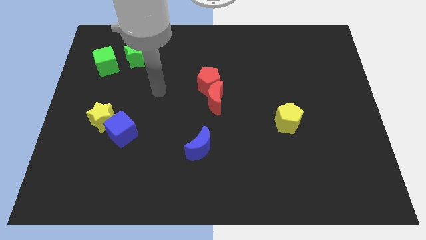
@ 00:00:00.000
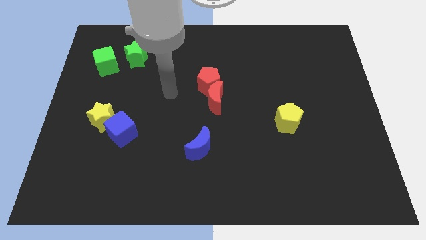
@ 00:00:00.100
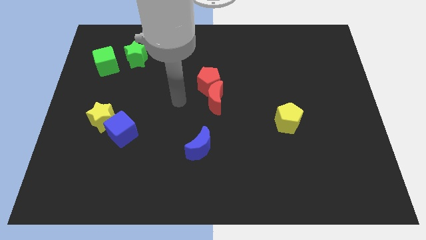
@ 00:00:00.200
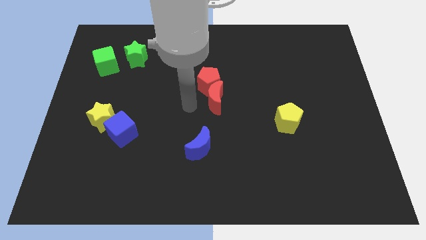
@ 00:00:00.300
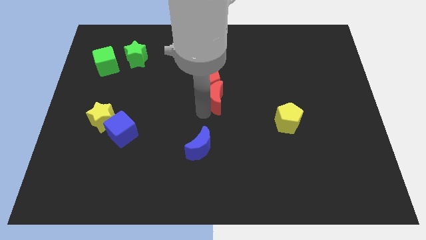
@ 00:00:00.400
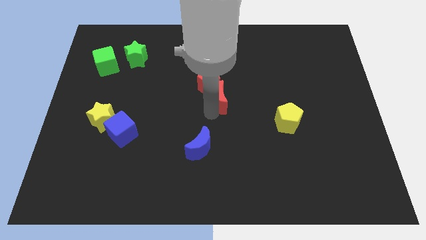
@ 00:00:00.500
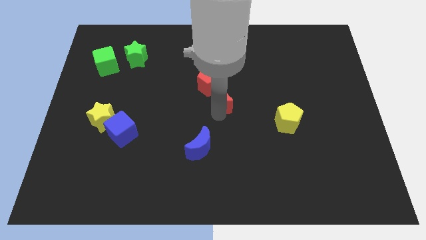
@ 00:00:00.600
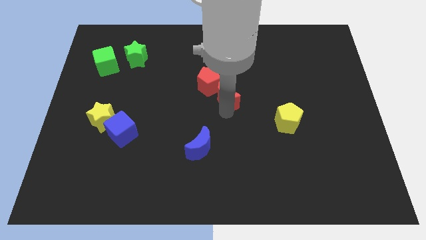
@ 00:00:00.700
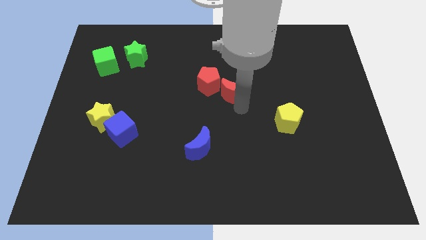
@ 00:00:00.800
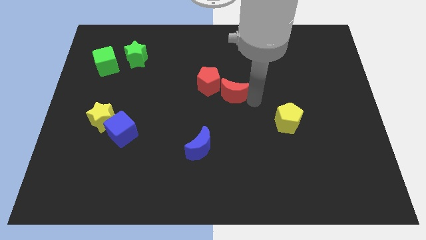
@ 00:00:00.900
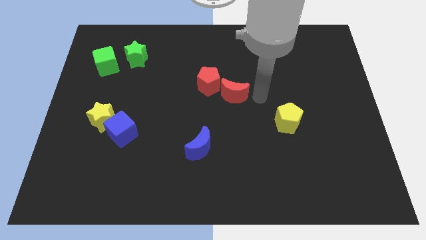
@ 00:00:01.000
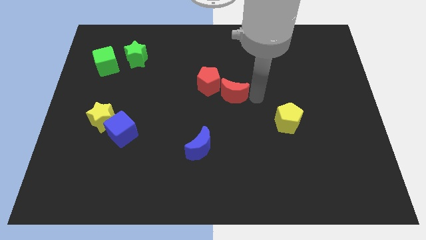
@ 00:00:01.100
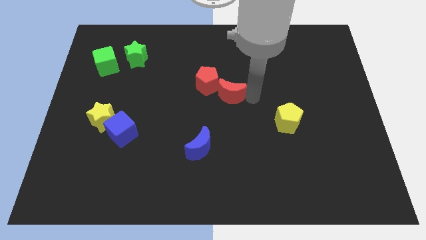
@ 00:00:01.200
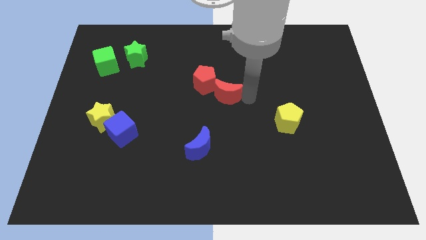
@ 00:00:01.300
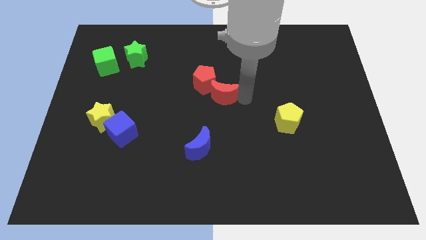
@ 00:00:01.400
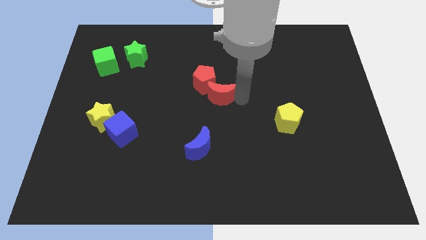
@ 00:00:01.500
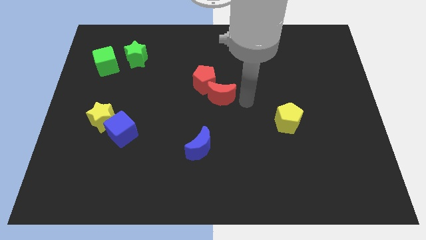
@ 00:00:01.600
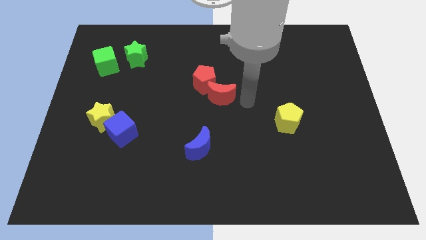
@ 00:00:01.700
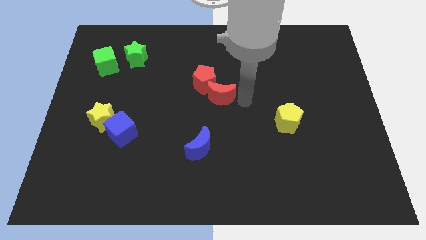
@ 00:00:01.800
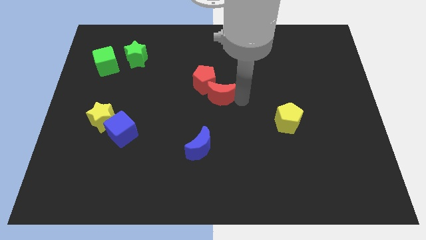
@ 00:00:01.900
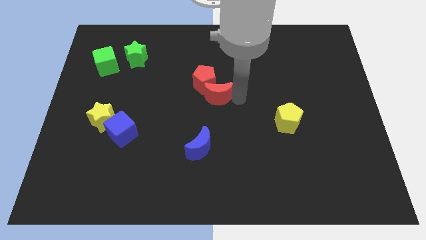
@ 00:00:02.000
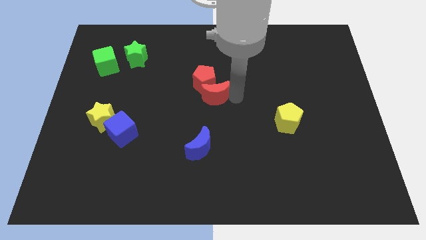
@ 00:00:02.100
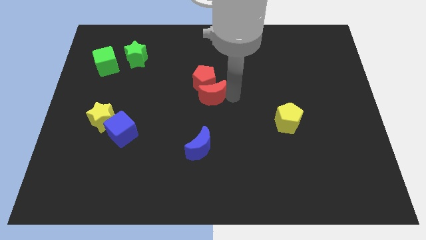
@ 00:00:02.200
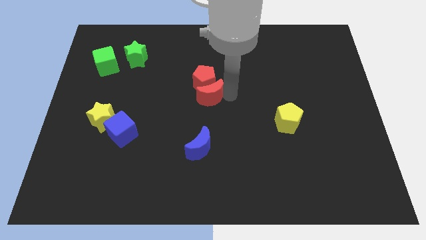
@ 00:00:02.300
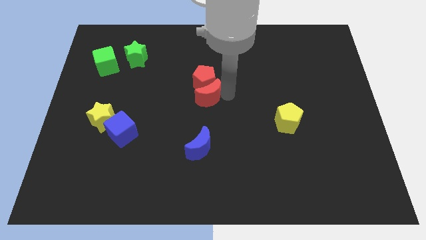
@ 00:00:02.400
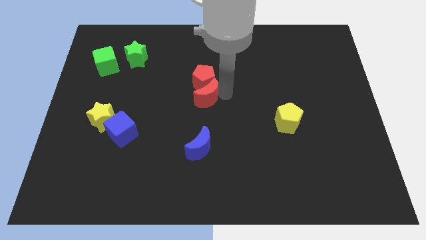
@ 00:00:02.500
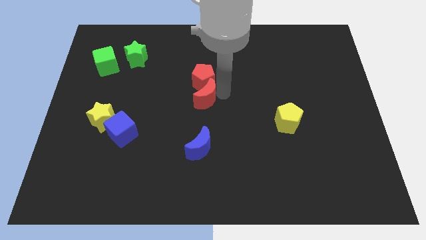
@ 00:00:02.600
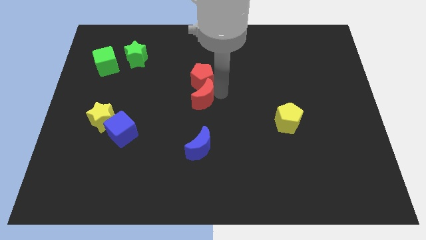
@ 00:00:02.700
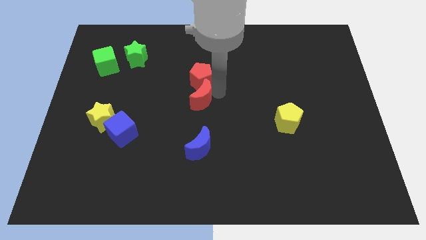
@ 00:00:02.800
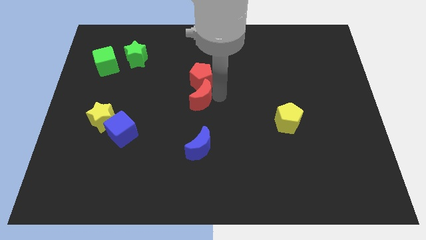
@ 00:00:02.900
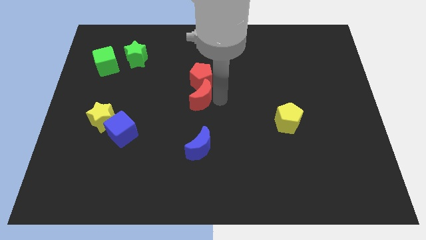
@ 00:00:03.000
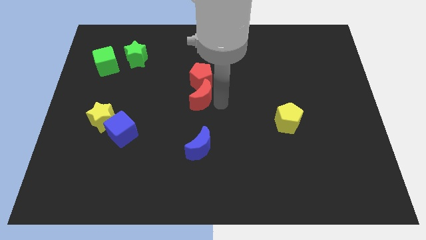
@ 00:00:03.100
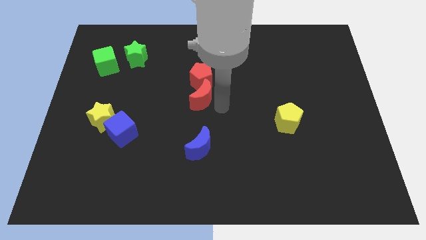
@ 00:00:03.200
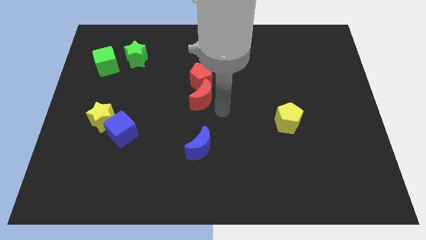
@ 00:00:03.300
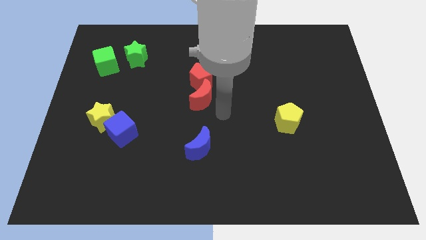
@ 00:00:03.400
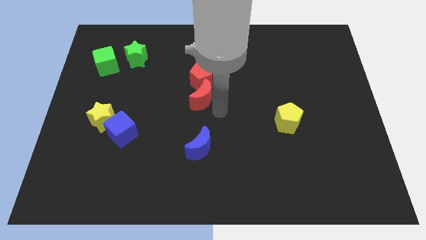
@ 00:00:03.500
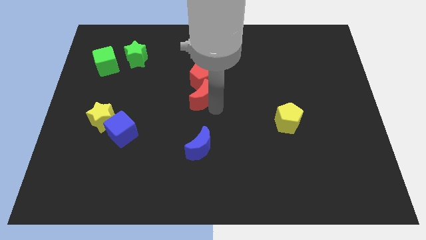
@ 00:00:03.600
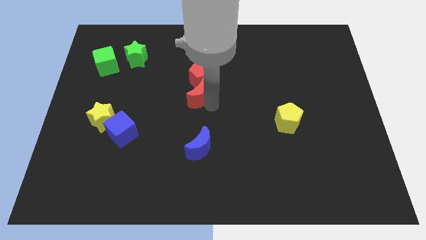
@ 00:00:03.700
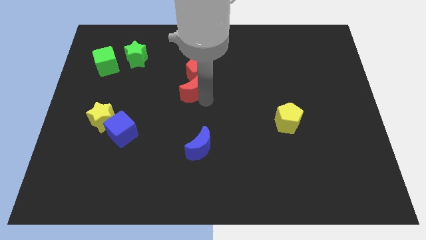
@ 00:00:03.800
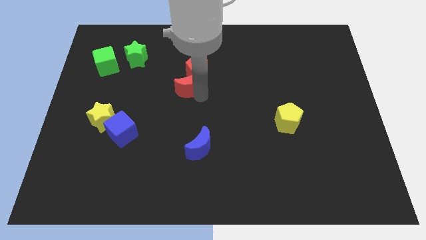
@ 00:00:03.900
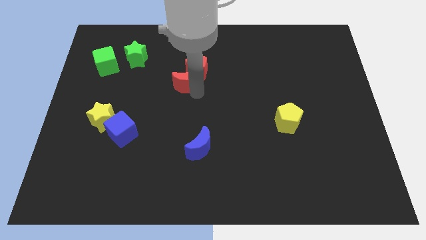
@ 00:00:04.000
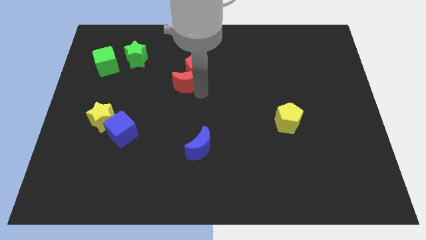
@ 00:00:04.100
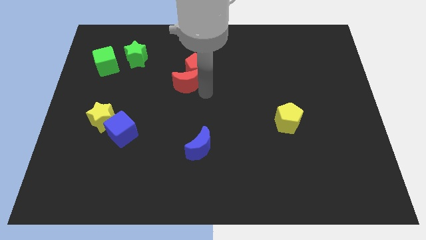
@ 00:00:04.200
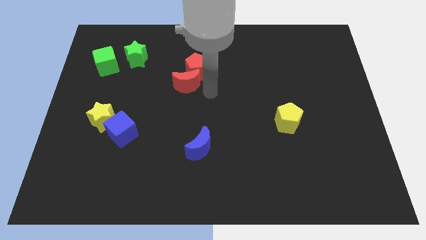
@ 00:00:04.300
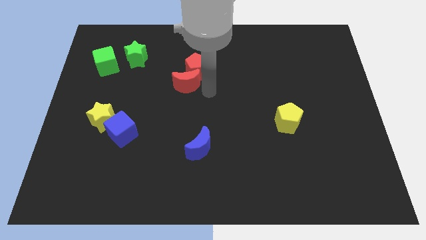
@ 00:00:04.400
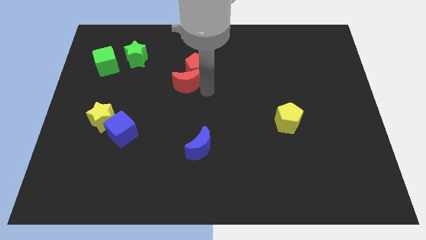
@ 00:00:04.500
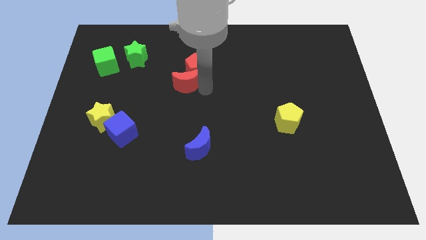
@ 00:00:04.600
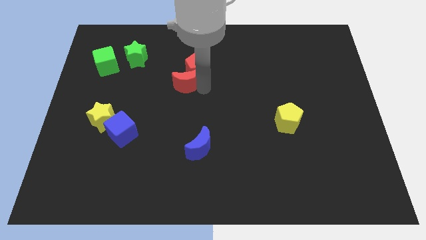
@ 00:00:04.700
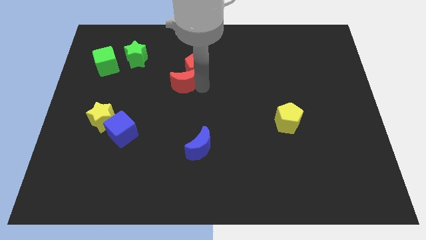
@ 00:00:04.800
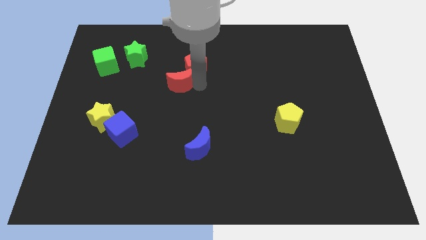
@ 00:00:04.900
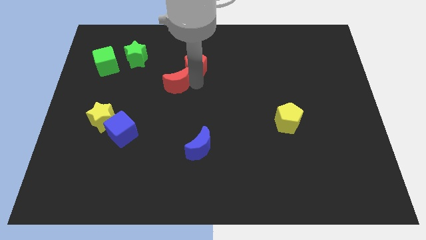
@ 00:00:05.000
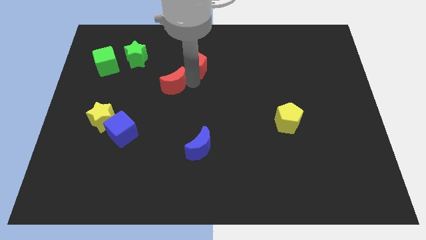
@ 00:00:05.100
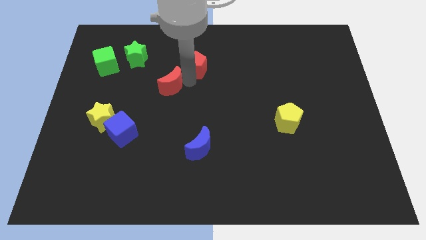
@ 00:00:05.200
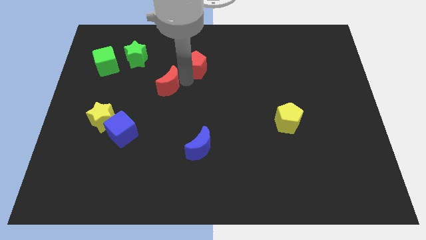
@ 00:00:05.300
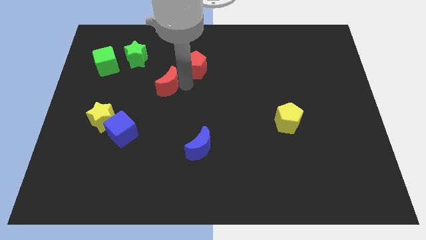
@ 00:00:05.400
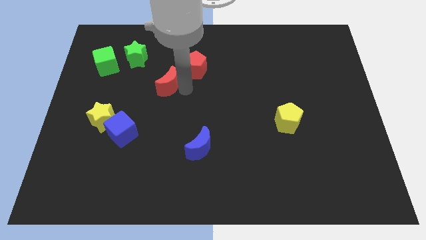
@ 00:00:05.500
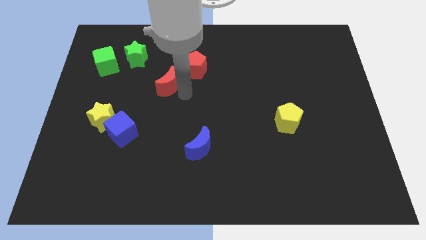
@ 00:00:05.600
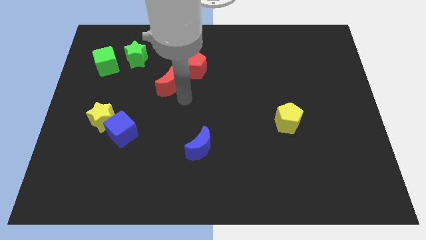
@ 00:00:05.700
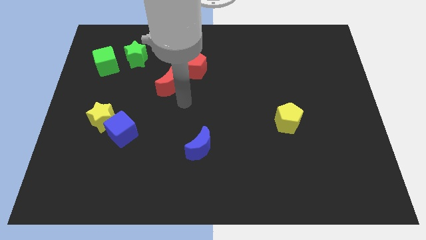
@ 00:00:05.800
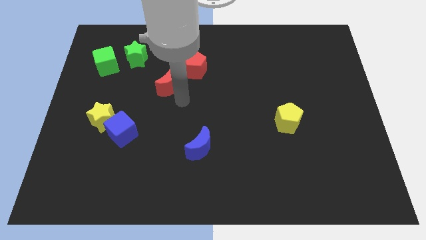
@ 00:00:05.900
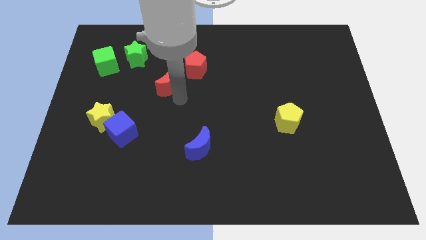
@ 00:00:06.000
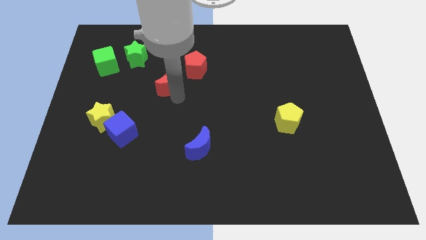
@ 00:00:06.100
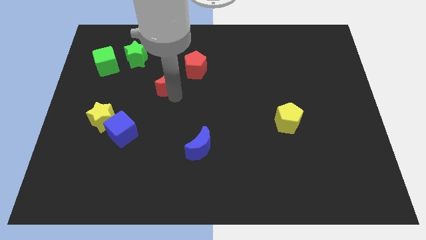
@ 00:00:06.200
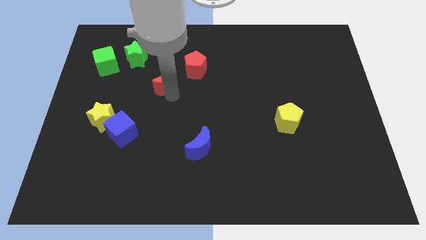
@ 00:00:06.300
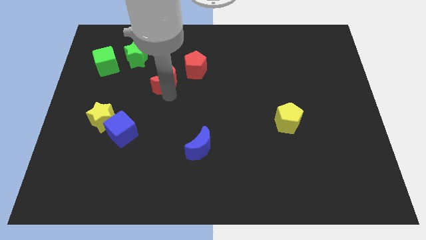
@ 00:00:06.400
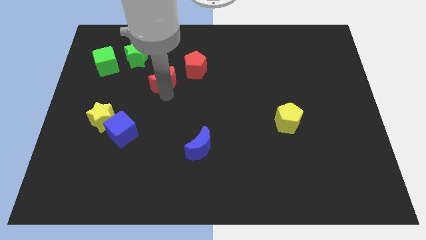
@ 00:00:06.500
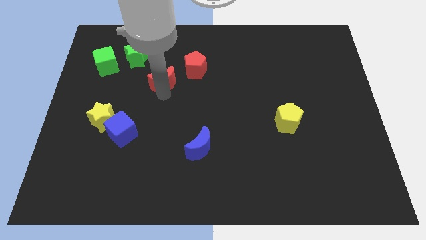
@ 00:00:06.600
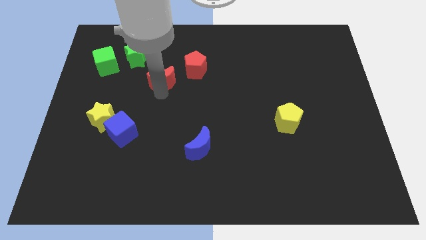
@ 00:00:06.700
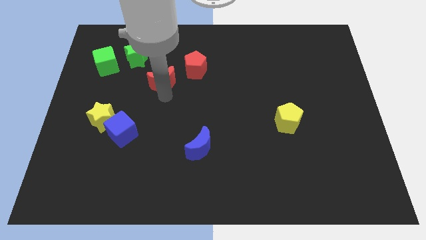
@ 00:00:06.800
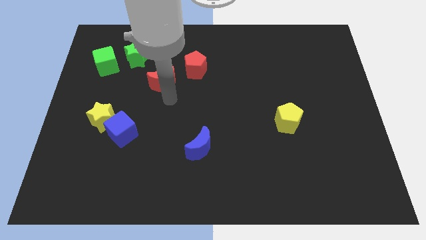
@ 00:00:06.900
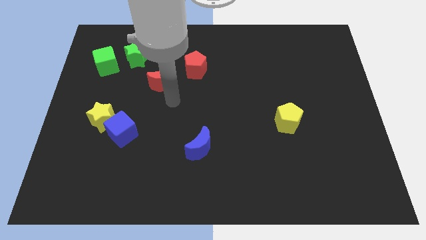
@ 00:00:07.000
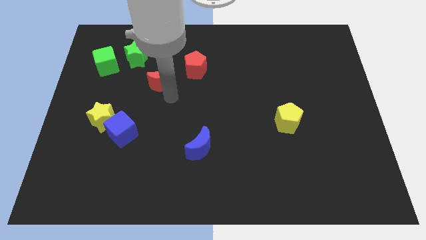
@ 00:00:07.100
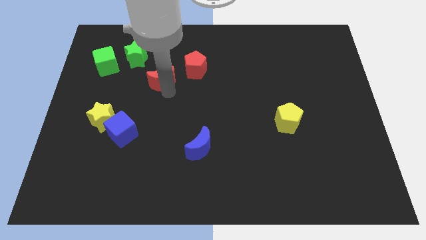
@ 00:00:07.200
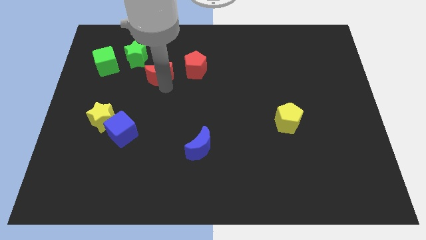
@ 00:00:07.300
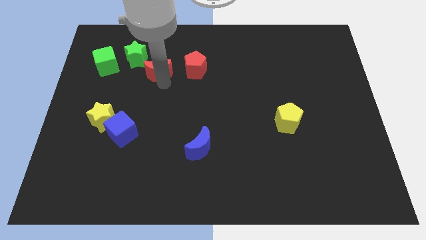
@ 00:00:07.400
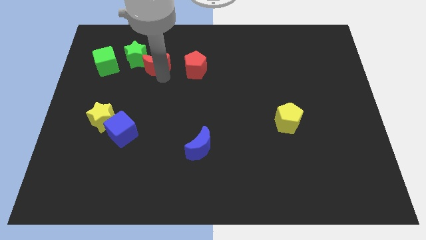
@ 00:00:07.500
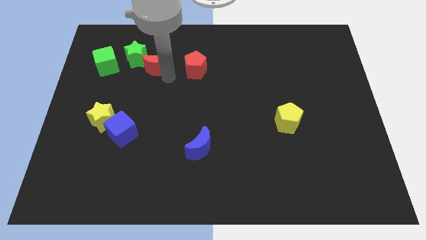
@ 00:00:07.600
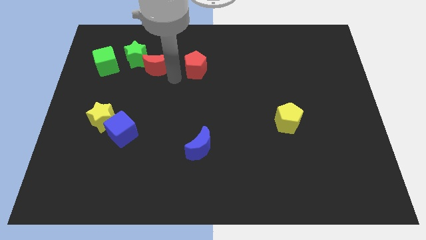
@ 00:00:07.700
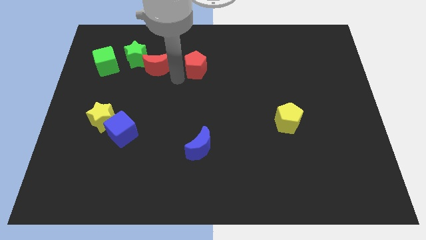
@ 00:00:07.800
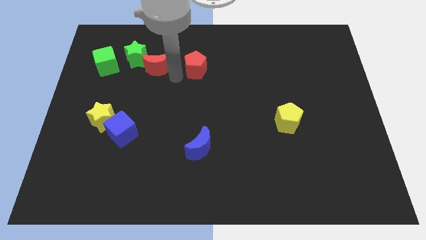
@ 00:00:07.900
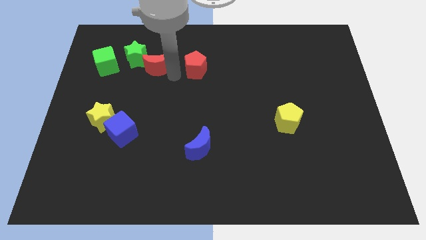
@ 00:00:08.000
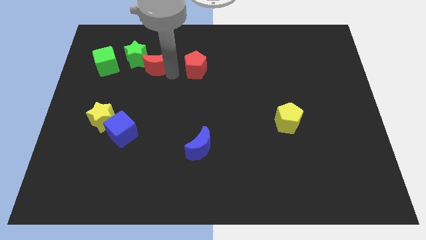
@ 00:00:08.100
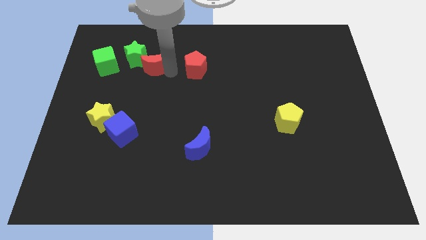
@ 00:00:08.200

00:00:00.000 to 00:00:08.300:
push the red moon next to the green star
